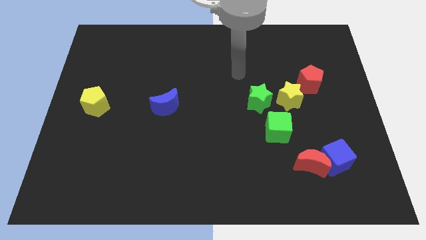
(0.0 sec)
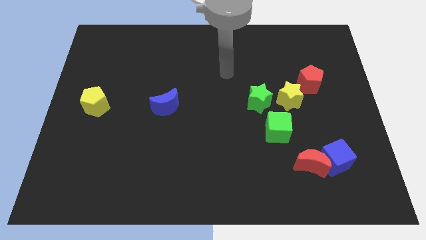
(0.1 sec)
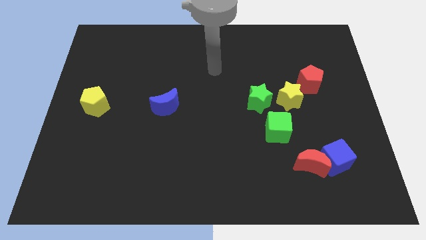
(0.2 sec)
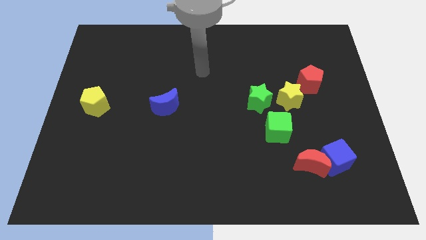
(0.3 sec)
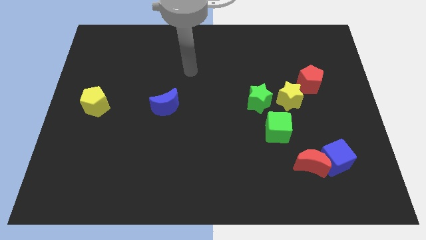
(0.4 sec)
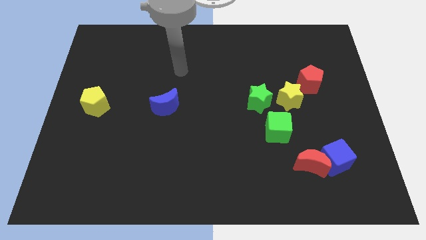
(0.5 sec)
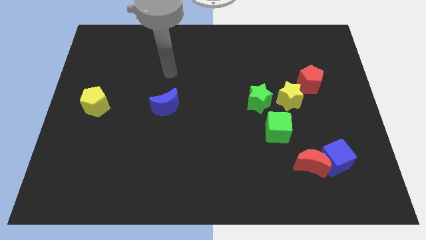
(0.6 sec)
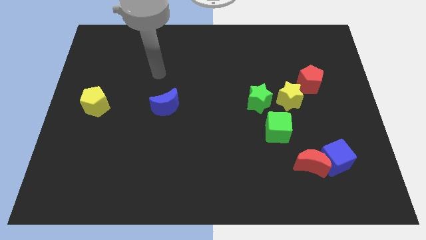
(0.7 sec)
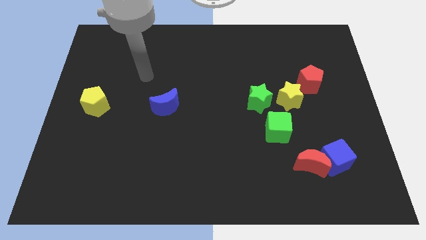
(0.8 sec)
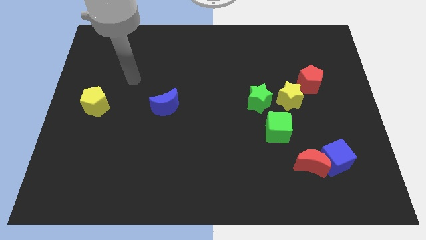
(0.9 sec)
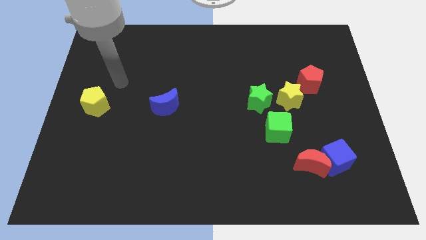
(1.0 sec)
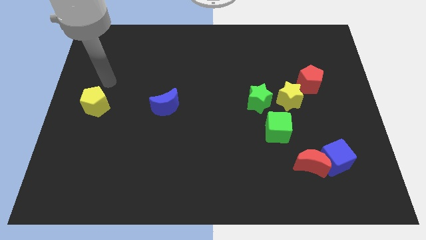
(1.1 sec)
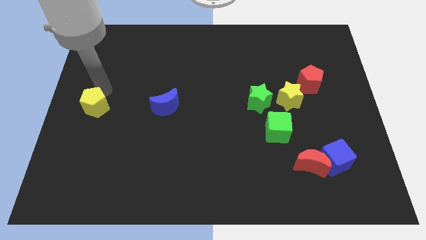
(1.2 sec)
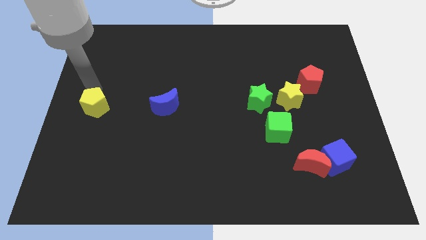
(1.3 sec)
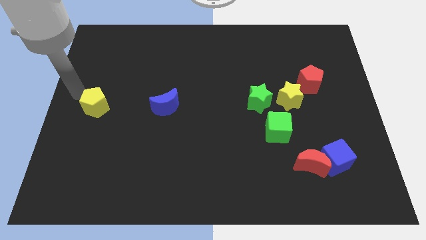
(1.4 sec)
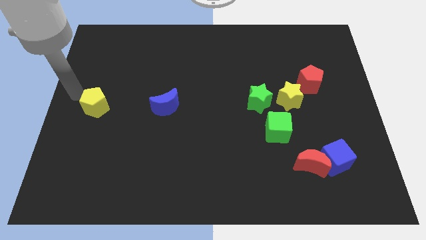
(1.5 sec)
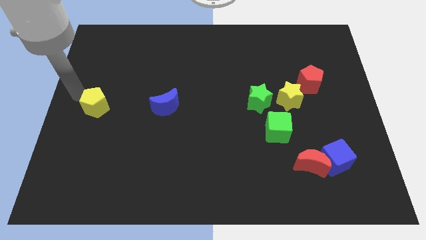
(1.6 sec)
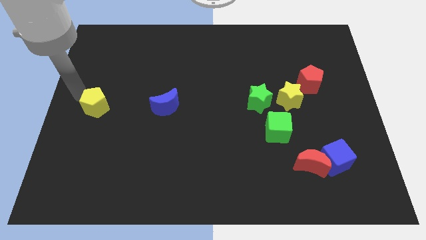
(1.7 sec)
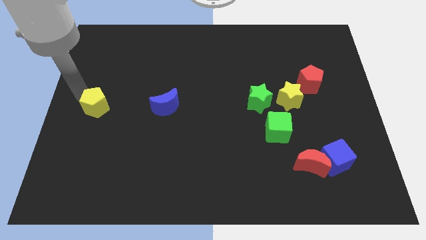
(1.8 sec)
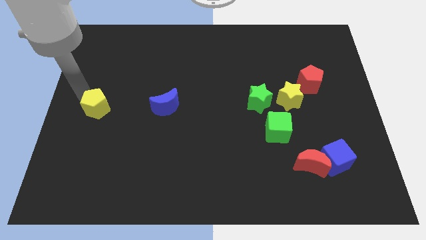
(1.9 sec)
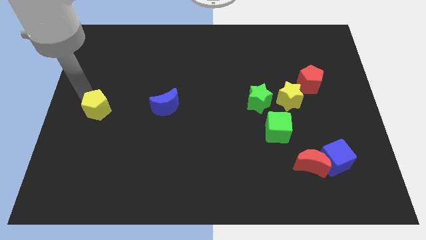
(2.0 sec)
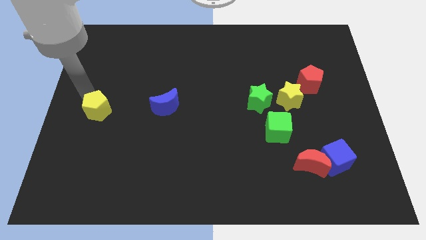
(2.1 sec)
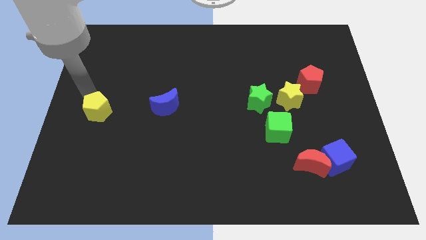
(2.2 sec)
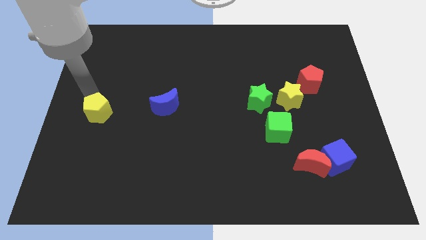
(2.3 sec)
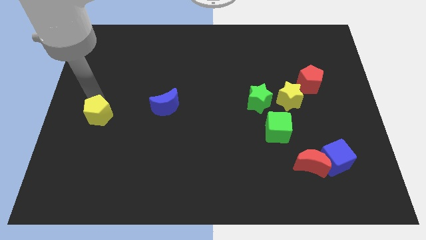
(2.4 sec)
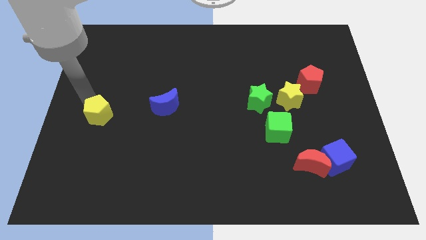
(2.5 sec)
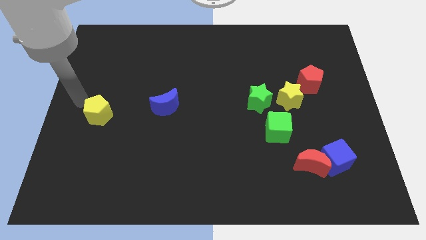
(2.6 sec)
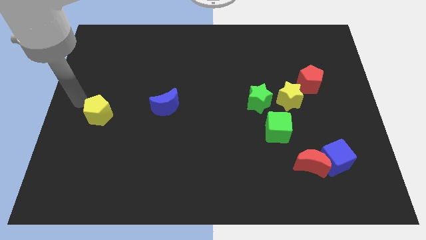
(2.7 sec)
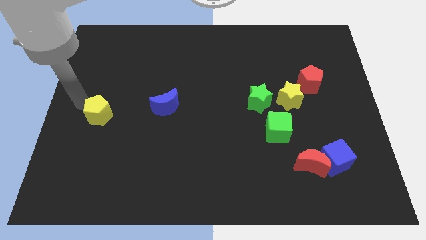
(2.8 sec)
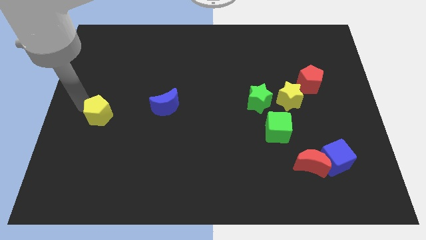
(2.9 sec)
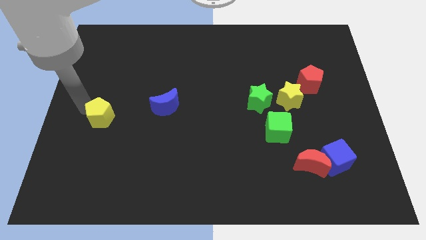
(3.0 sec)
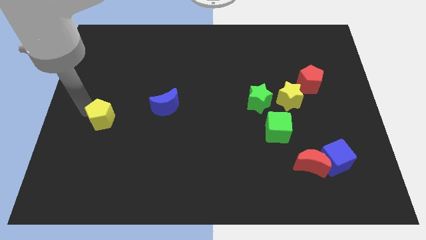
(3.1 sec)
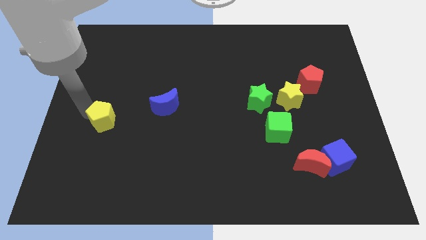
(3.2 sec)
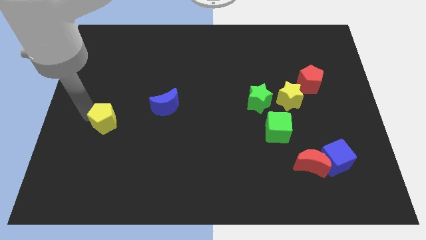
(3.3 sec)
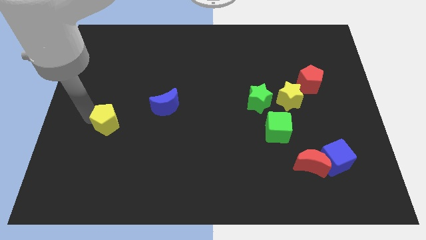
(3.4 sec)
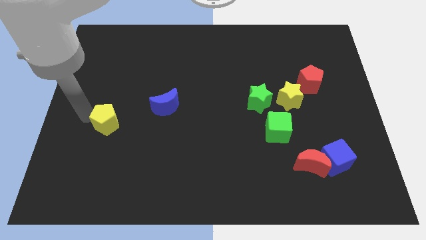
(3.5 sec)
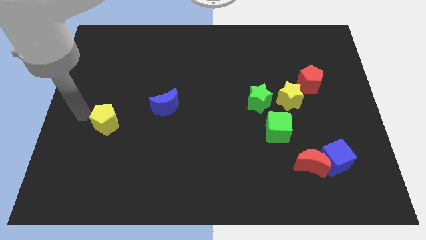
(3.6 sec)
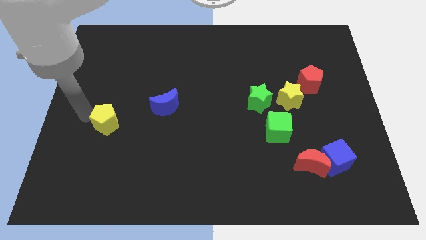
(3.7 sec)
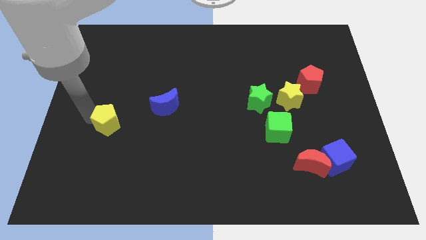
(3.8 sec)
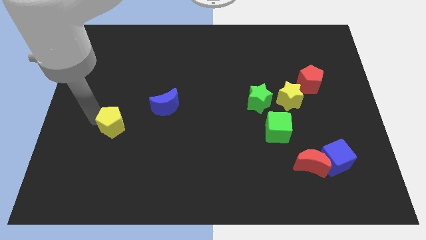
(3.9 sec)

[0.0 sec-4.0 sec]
slide the yellow pentagon a little down and to the right

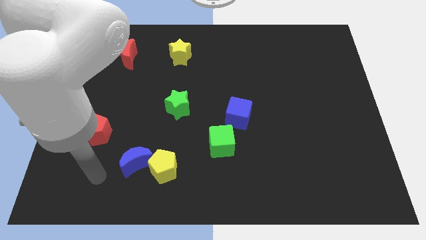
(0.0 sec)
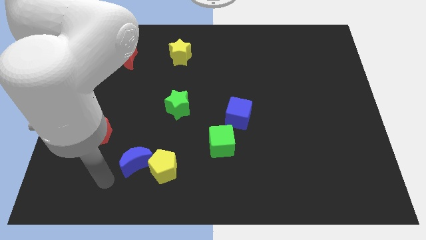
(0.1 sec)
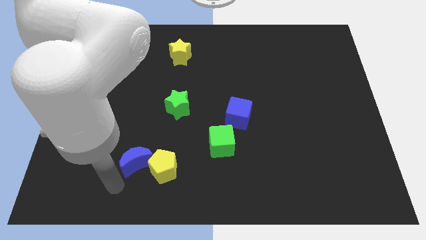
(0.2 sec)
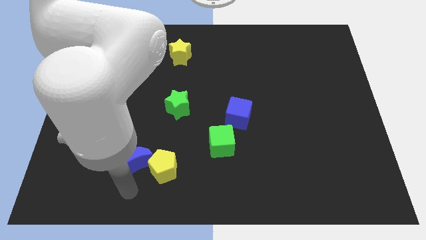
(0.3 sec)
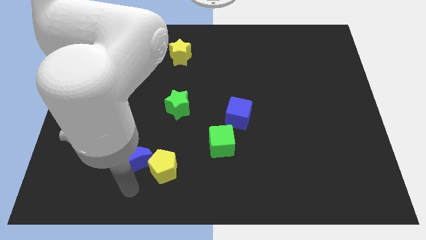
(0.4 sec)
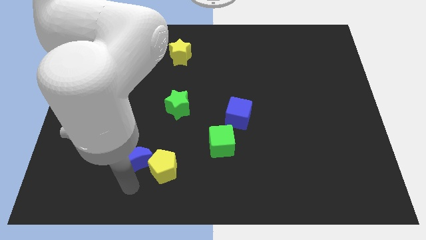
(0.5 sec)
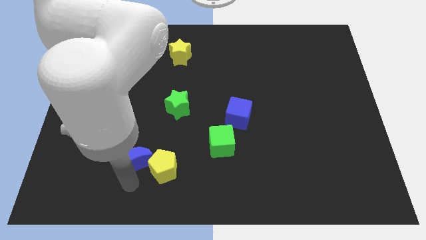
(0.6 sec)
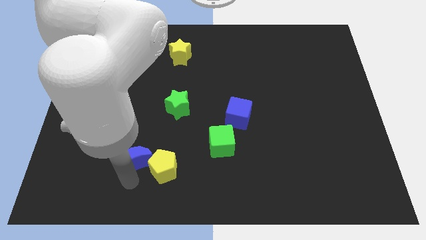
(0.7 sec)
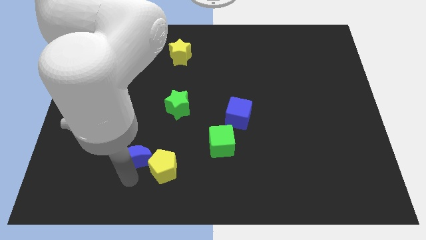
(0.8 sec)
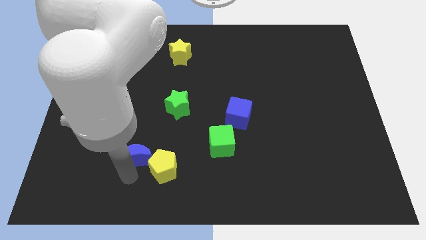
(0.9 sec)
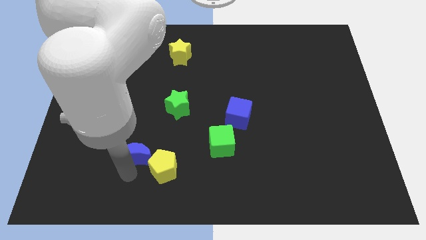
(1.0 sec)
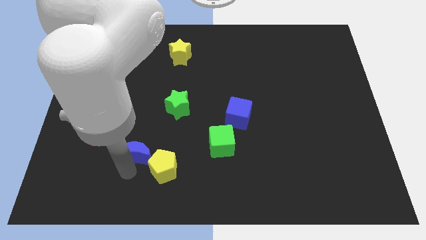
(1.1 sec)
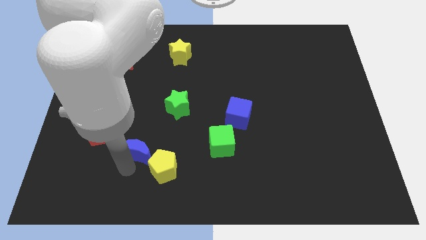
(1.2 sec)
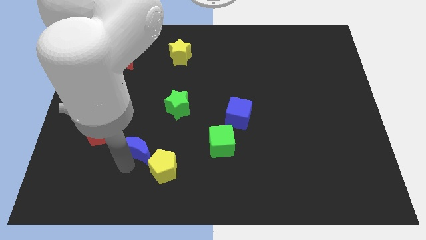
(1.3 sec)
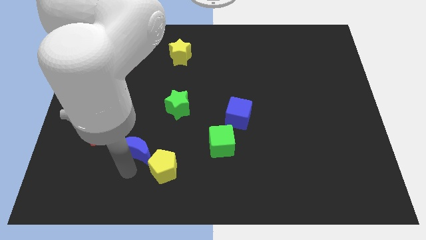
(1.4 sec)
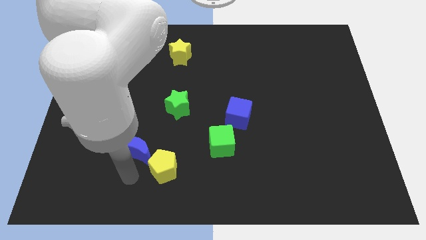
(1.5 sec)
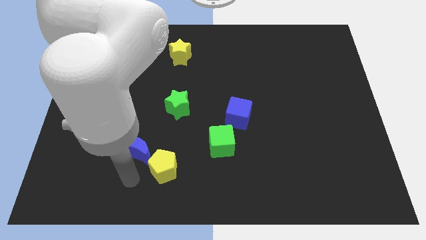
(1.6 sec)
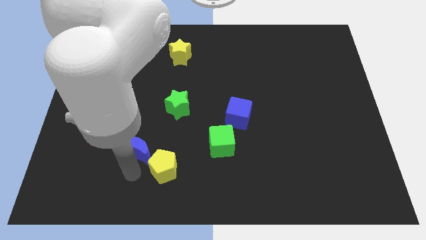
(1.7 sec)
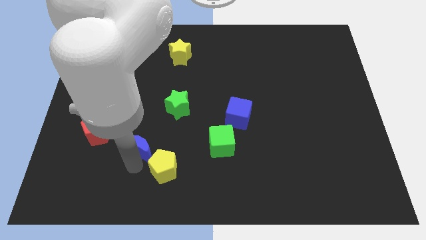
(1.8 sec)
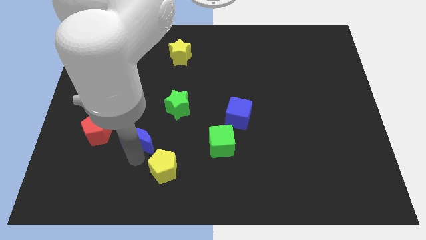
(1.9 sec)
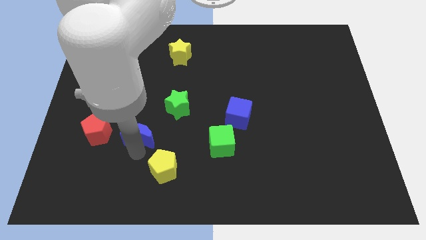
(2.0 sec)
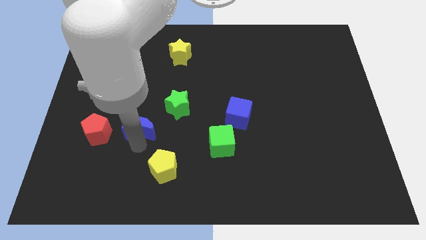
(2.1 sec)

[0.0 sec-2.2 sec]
slightly slide the blue moon up

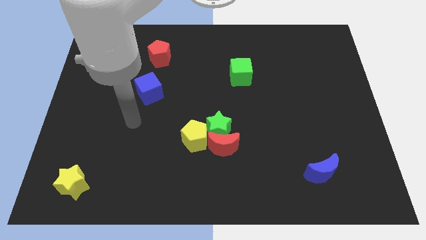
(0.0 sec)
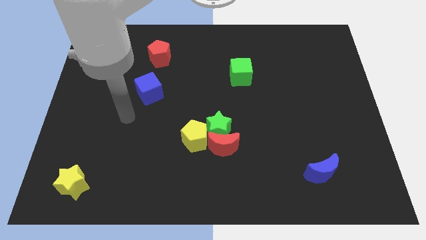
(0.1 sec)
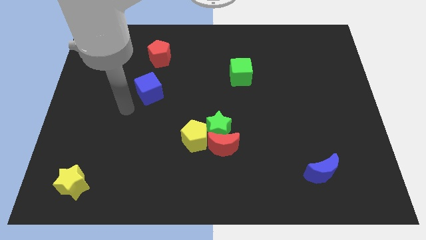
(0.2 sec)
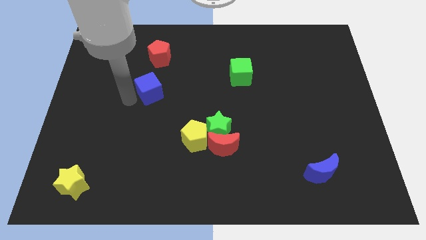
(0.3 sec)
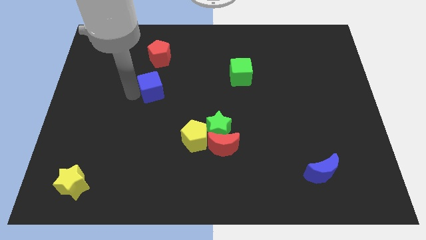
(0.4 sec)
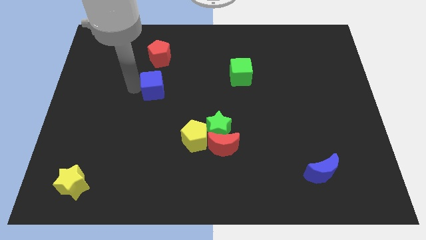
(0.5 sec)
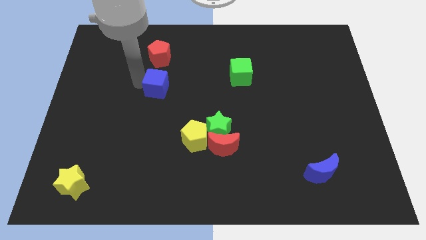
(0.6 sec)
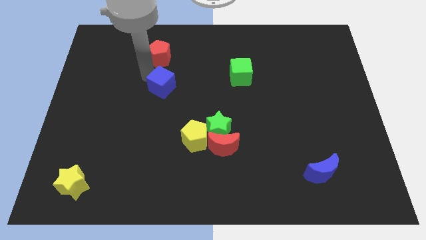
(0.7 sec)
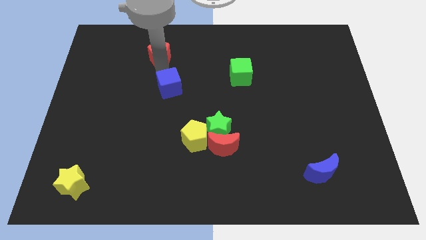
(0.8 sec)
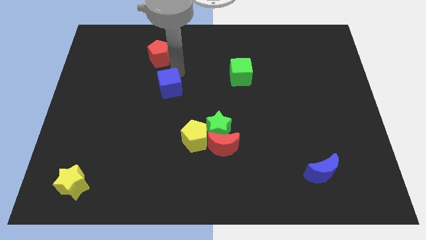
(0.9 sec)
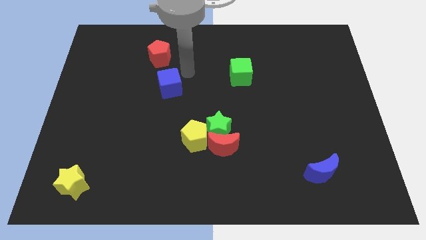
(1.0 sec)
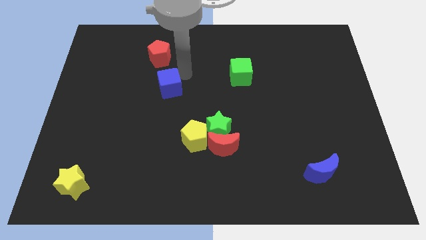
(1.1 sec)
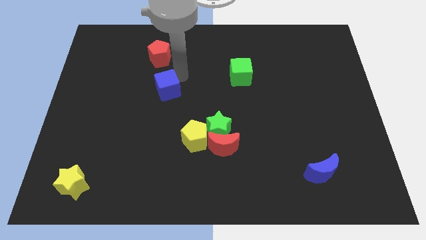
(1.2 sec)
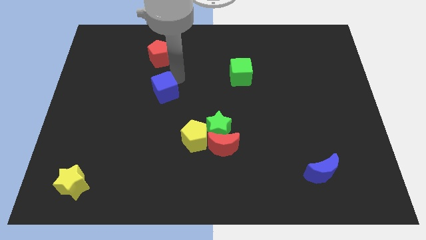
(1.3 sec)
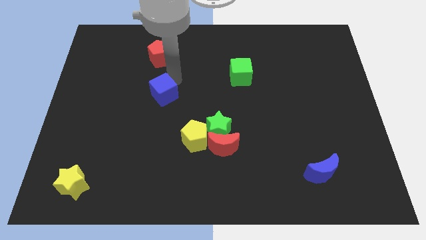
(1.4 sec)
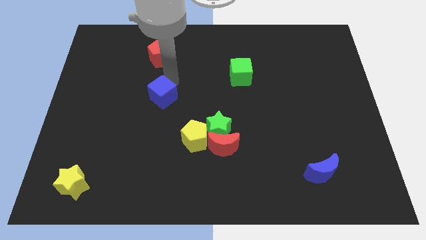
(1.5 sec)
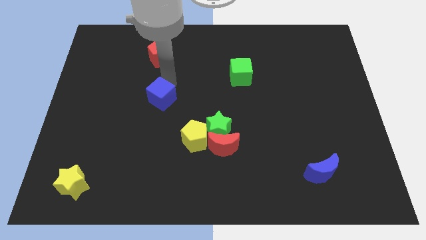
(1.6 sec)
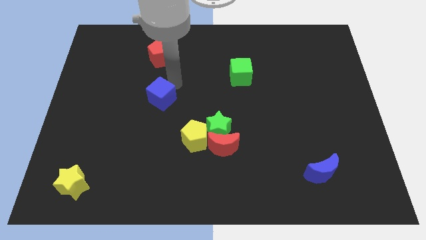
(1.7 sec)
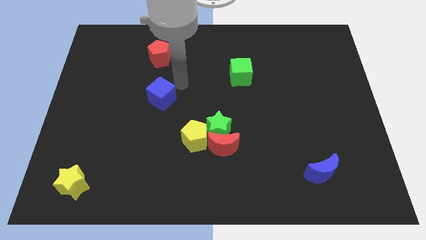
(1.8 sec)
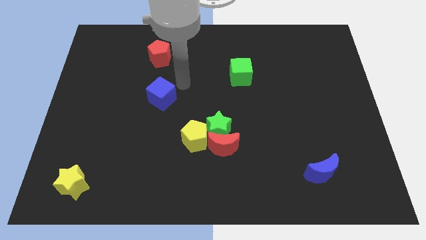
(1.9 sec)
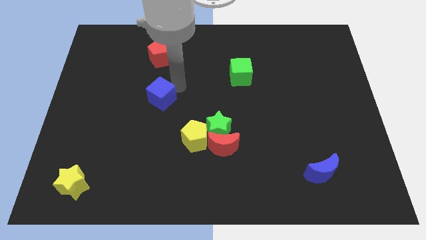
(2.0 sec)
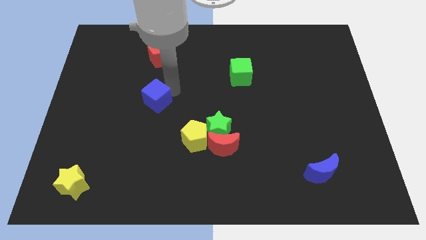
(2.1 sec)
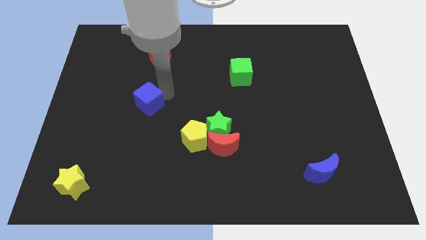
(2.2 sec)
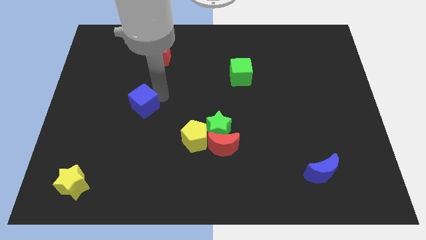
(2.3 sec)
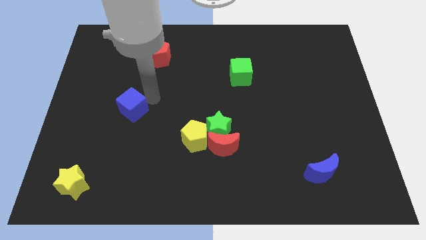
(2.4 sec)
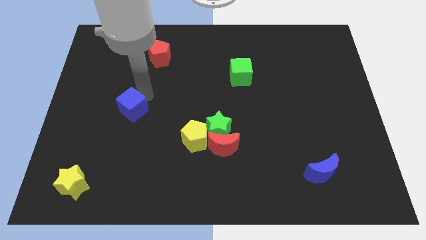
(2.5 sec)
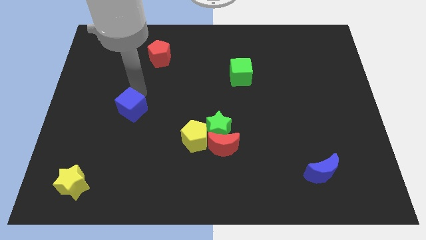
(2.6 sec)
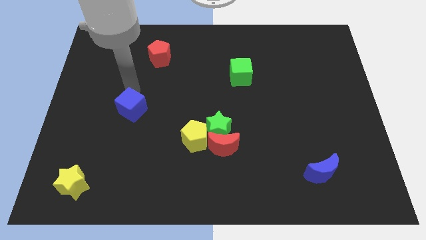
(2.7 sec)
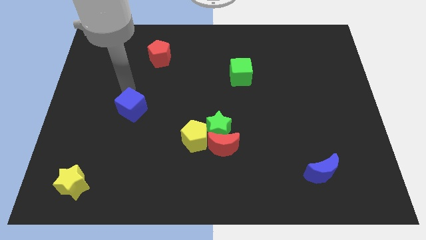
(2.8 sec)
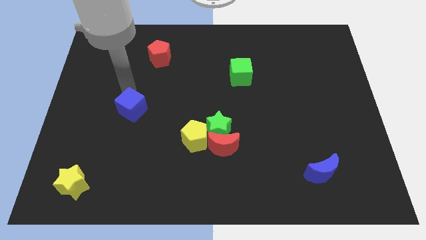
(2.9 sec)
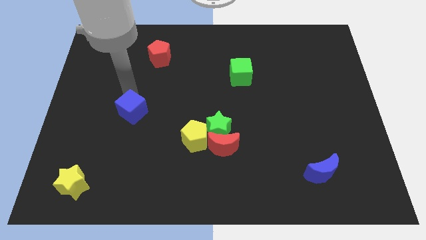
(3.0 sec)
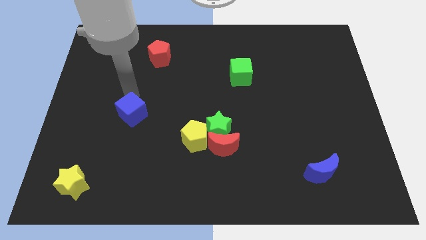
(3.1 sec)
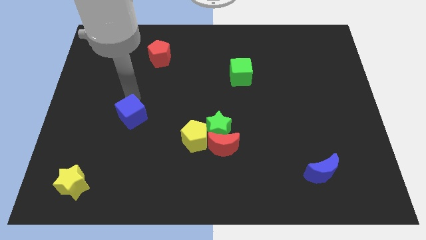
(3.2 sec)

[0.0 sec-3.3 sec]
slide the blue cube a little bit downwards
